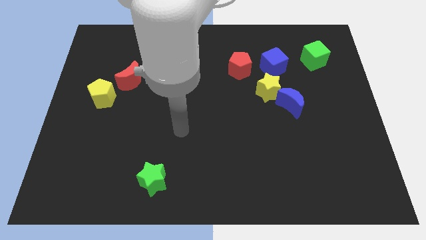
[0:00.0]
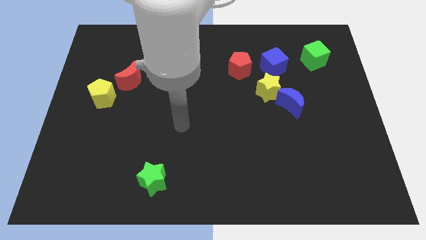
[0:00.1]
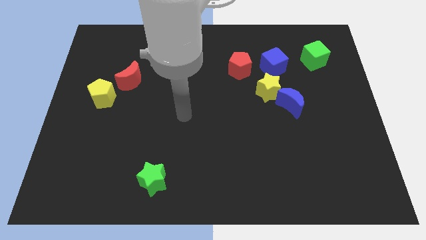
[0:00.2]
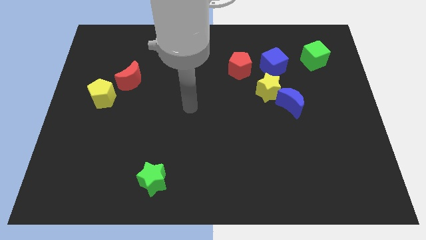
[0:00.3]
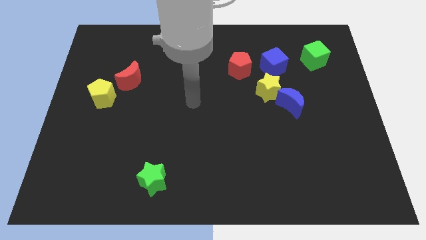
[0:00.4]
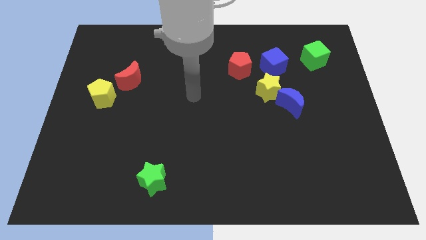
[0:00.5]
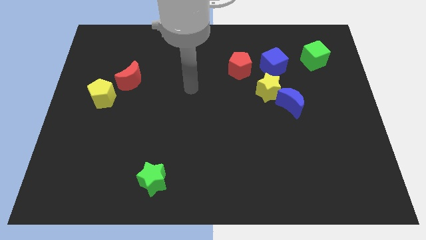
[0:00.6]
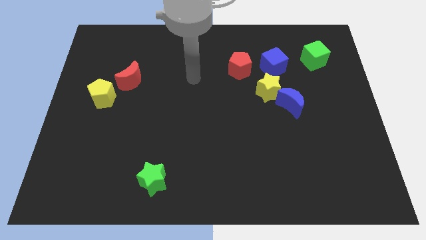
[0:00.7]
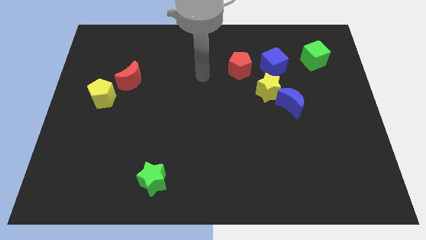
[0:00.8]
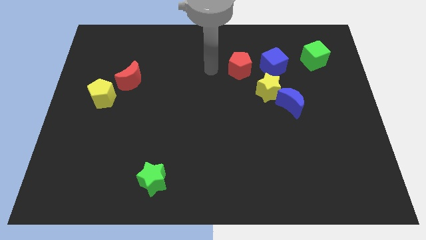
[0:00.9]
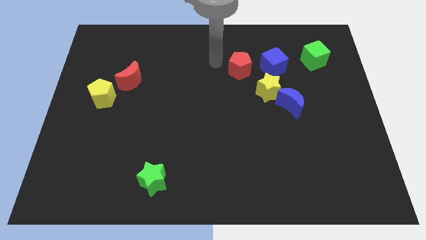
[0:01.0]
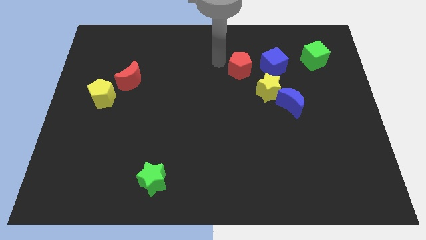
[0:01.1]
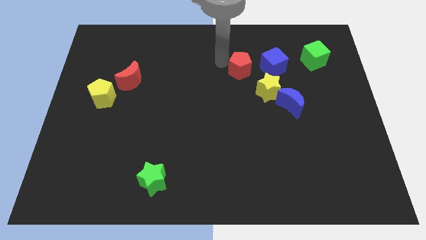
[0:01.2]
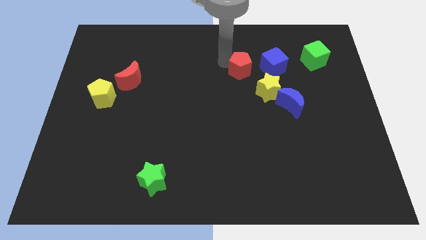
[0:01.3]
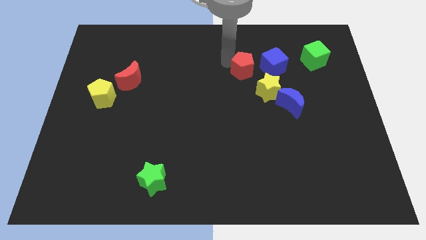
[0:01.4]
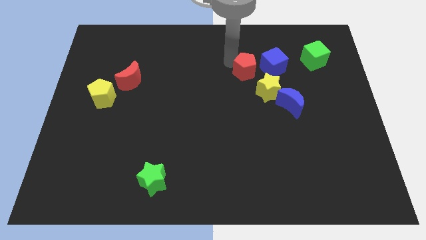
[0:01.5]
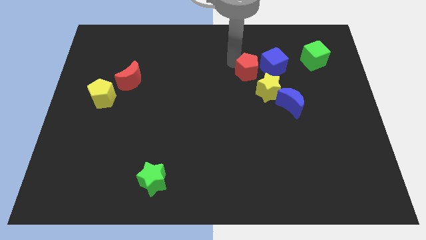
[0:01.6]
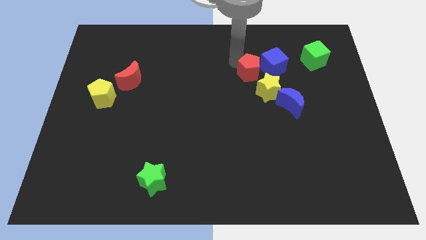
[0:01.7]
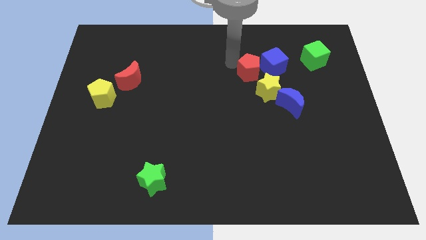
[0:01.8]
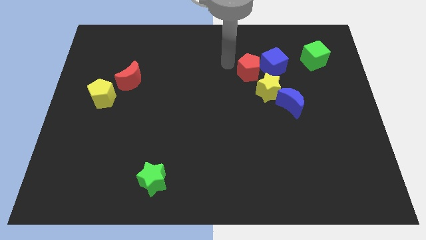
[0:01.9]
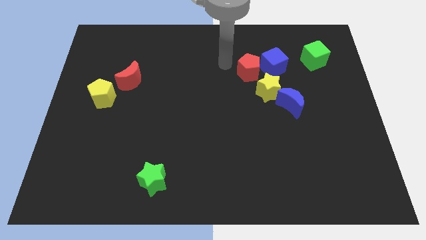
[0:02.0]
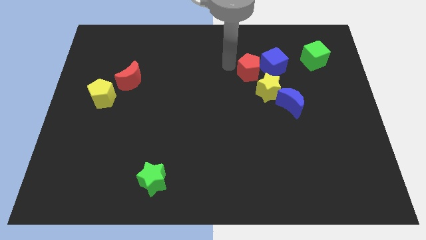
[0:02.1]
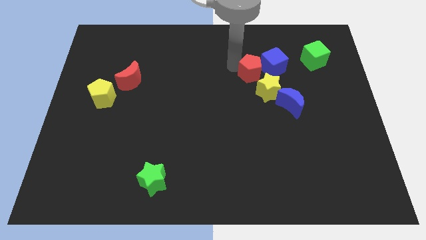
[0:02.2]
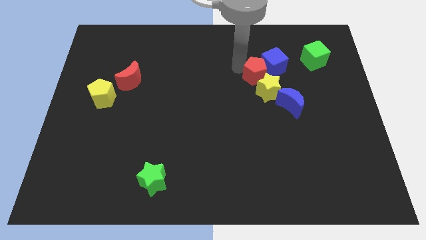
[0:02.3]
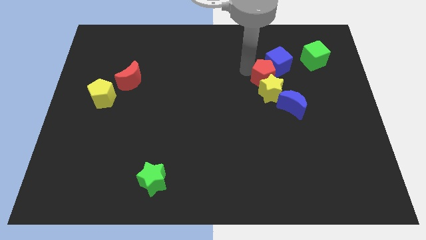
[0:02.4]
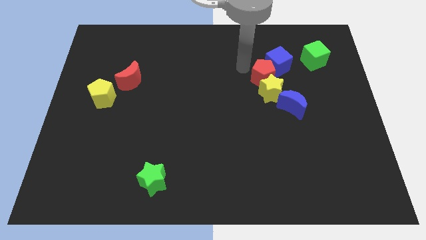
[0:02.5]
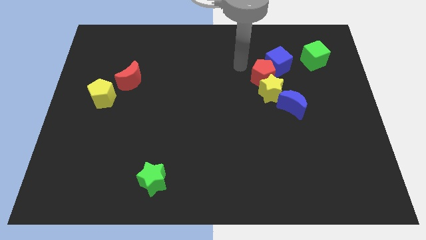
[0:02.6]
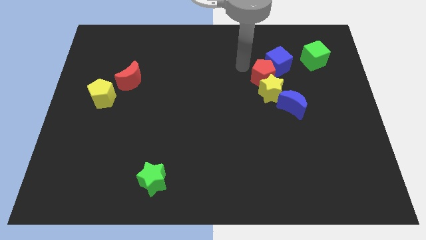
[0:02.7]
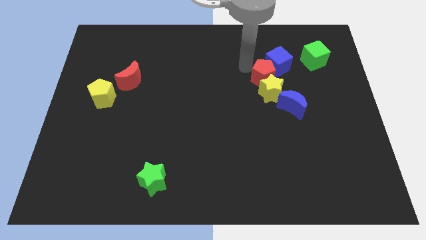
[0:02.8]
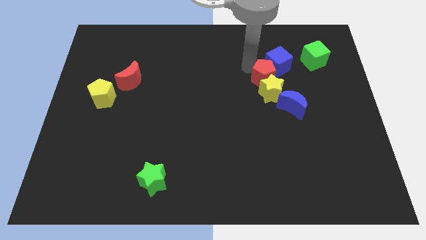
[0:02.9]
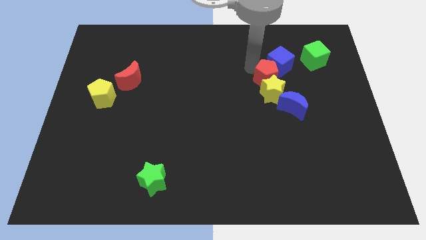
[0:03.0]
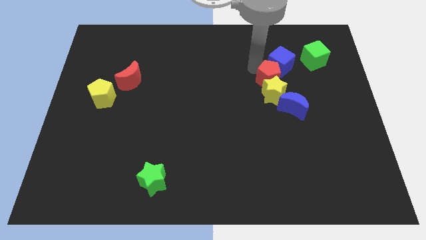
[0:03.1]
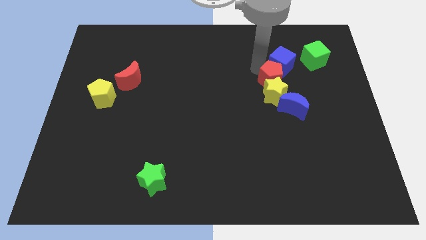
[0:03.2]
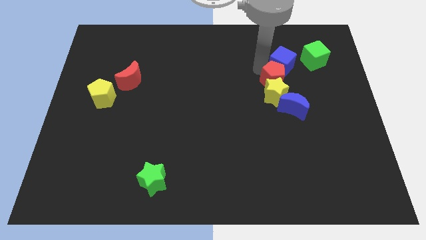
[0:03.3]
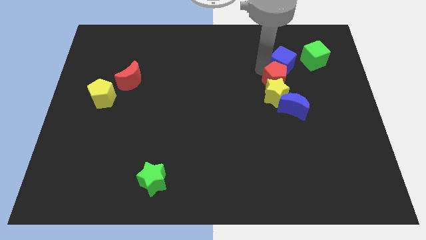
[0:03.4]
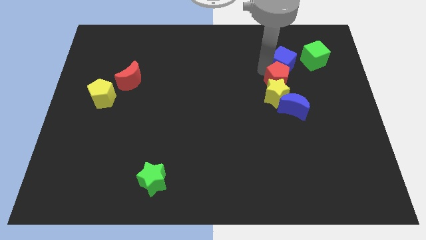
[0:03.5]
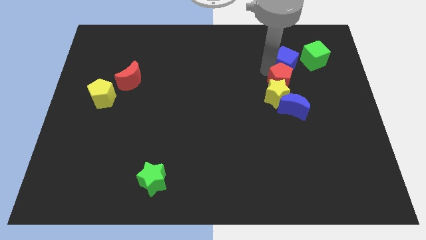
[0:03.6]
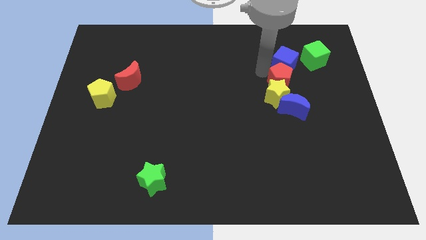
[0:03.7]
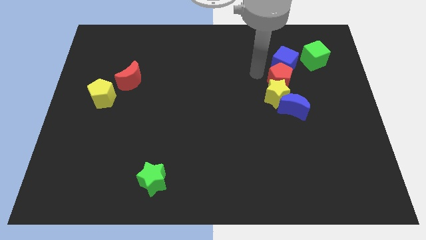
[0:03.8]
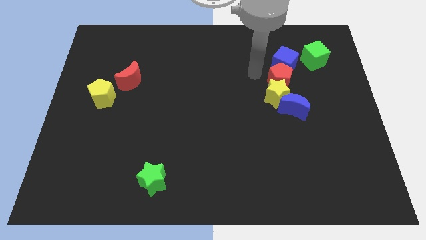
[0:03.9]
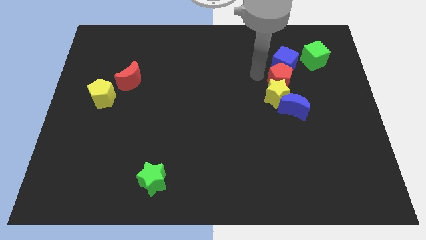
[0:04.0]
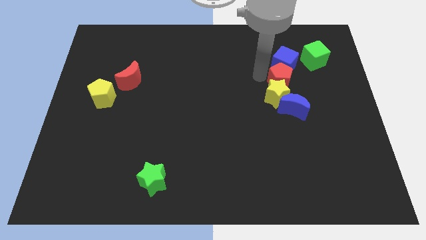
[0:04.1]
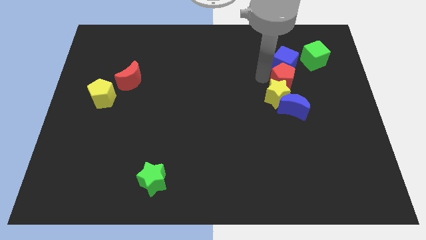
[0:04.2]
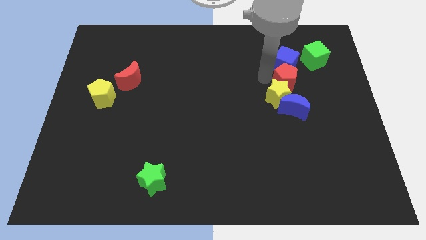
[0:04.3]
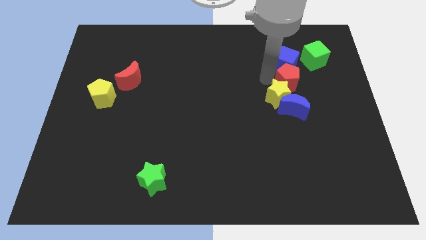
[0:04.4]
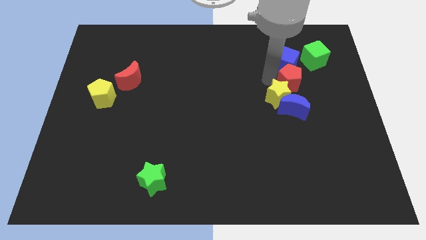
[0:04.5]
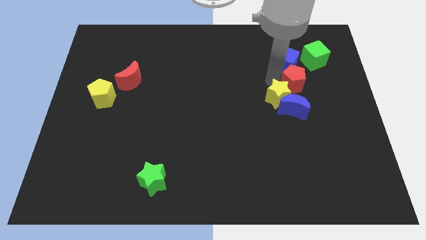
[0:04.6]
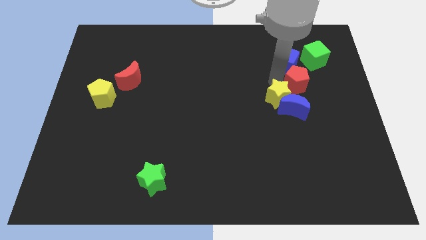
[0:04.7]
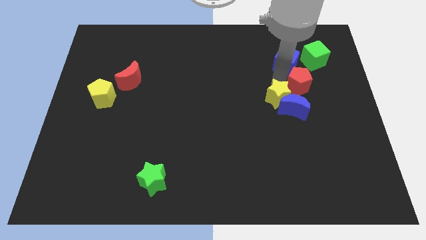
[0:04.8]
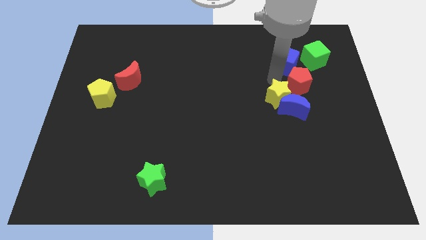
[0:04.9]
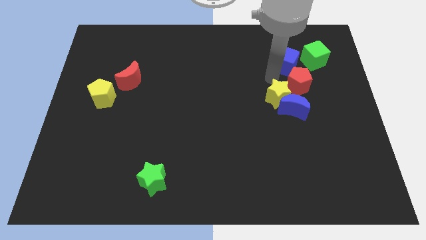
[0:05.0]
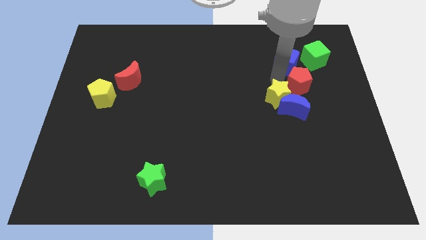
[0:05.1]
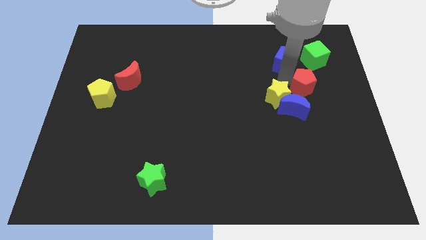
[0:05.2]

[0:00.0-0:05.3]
put the red pentagon to the bottom side of the green cube

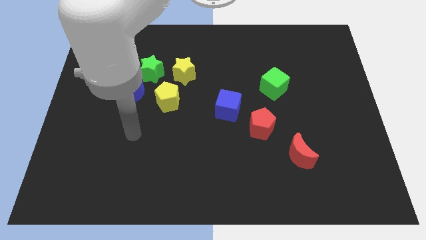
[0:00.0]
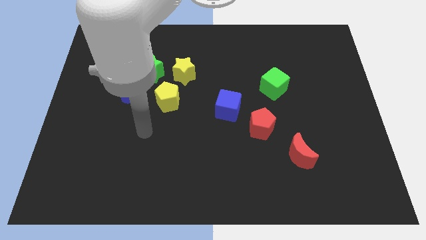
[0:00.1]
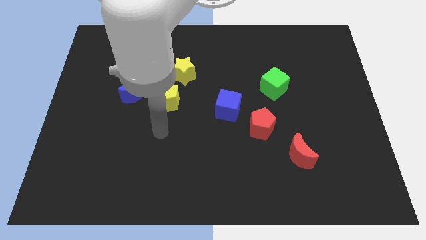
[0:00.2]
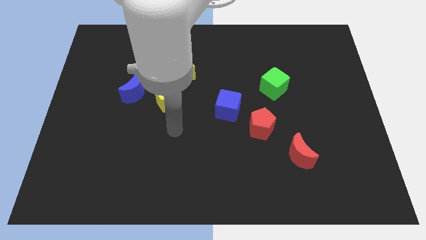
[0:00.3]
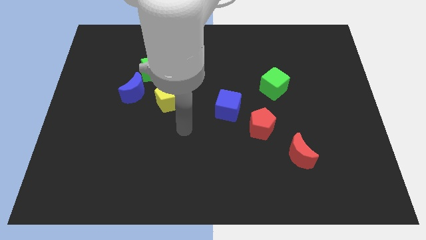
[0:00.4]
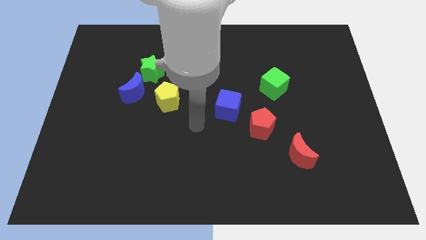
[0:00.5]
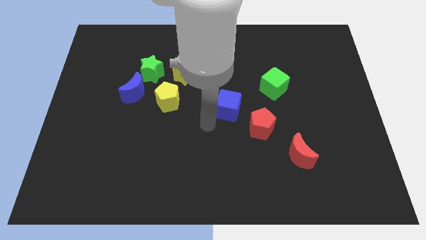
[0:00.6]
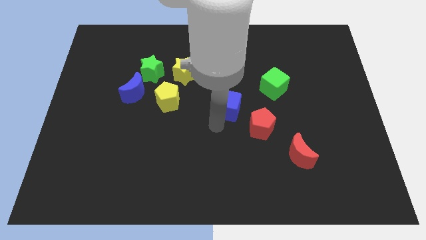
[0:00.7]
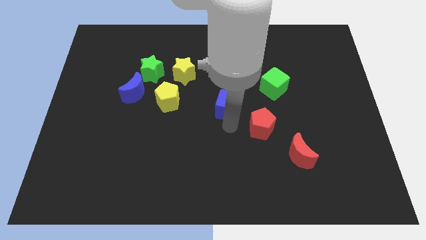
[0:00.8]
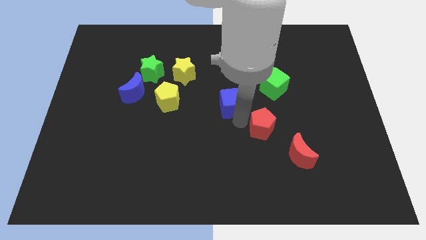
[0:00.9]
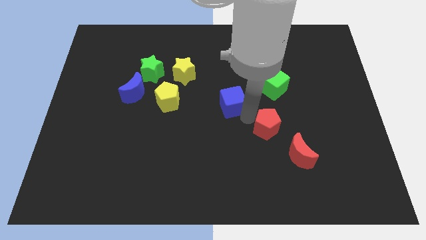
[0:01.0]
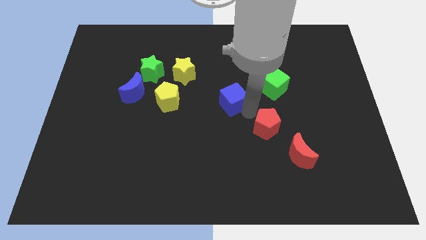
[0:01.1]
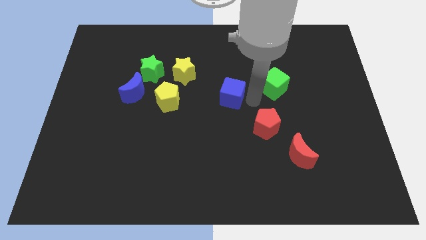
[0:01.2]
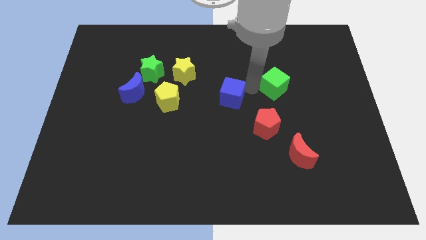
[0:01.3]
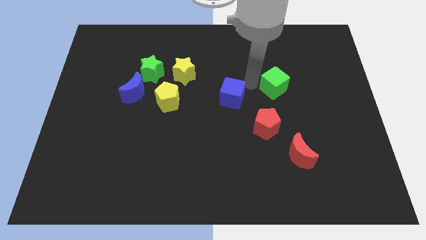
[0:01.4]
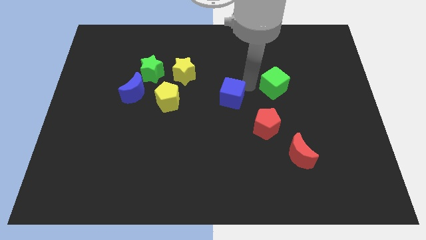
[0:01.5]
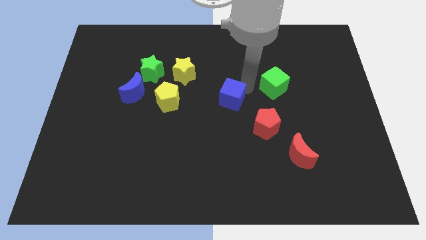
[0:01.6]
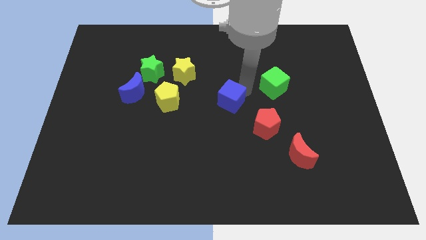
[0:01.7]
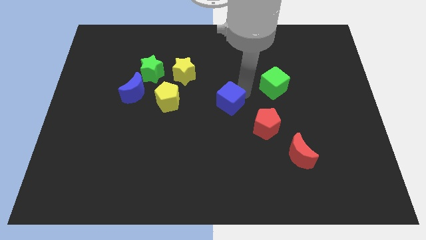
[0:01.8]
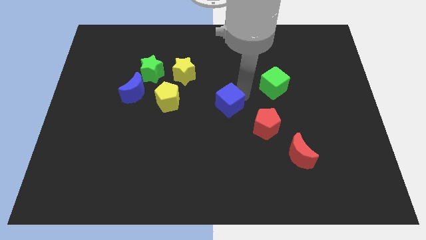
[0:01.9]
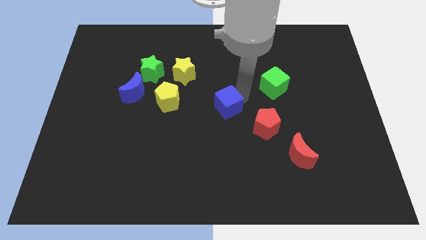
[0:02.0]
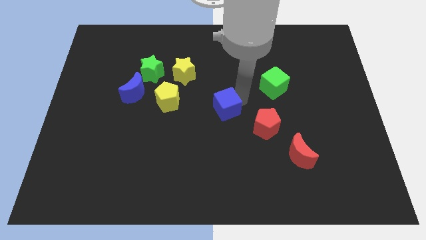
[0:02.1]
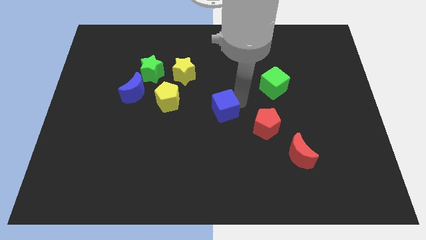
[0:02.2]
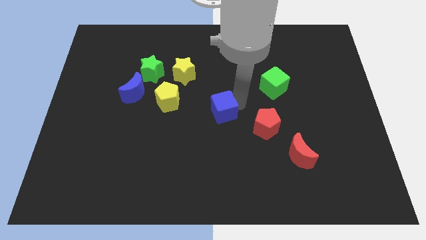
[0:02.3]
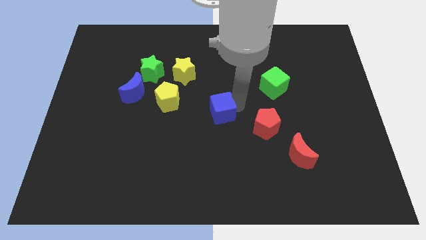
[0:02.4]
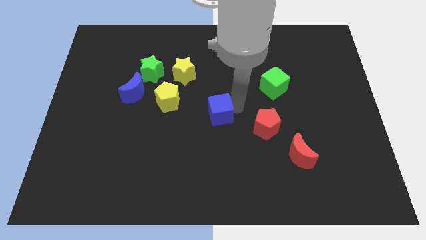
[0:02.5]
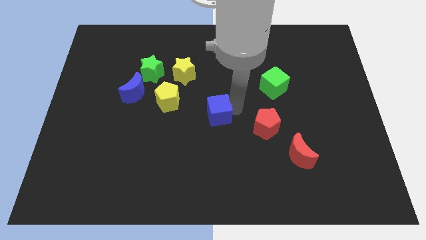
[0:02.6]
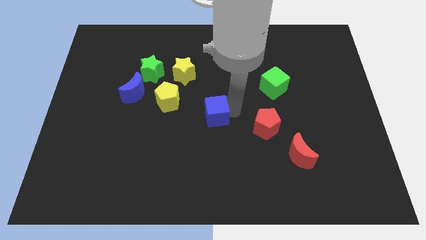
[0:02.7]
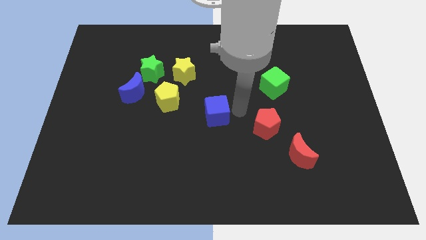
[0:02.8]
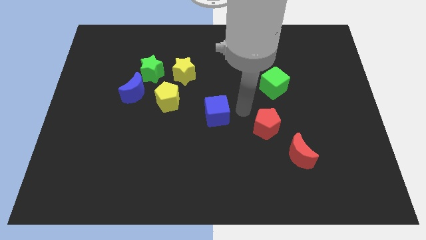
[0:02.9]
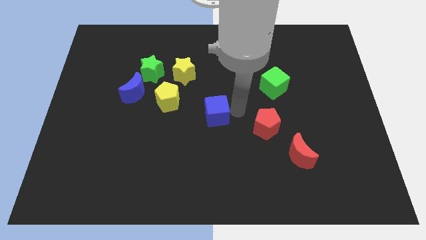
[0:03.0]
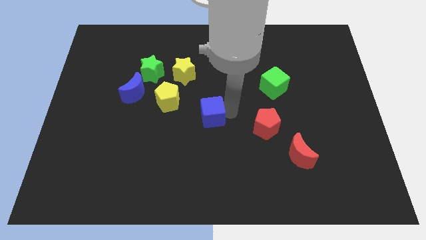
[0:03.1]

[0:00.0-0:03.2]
push the blue cube to the bottom right side of the yellow pentagon
